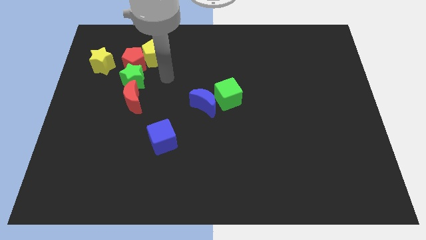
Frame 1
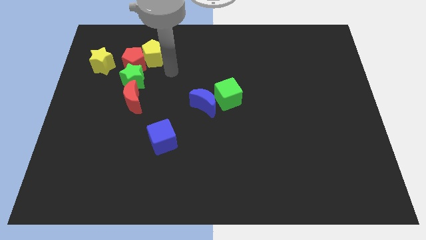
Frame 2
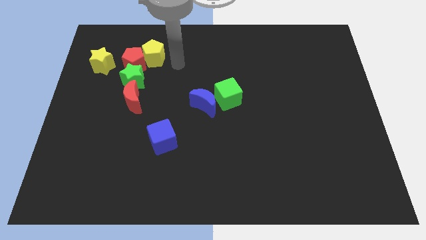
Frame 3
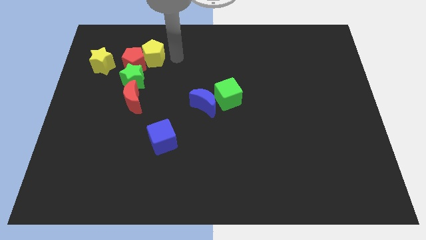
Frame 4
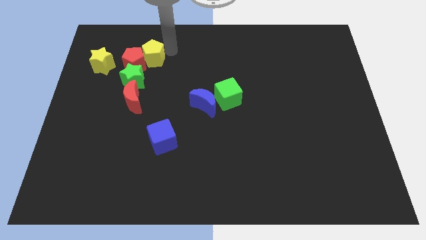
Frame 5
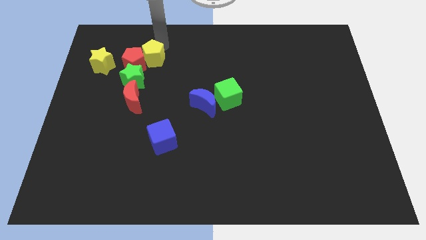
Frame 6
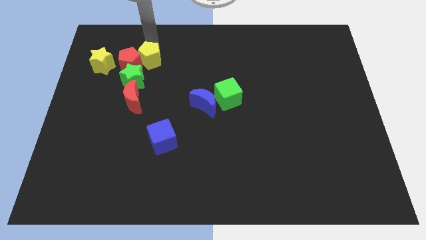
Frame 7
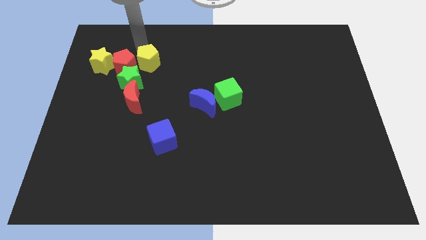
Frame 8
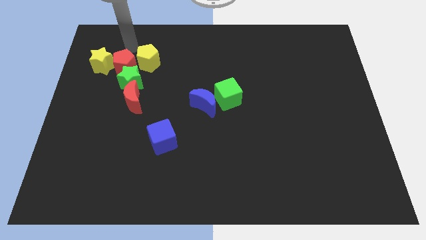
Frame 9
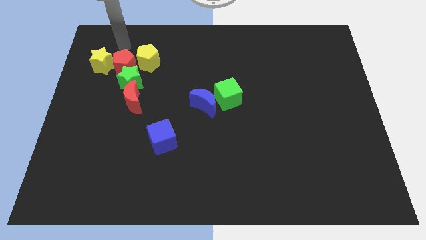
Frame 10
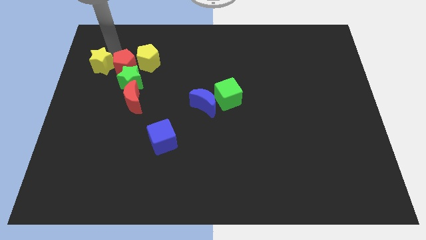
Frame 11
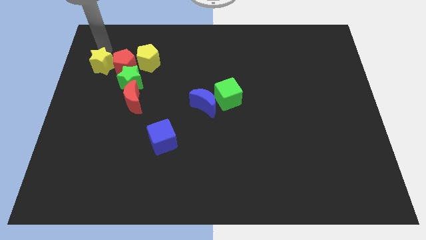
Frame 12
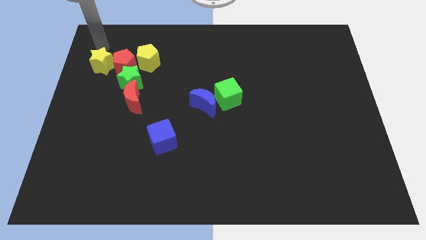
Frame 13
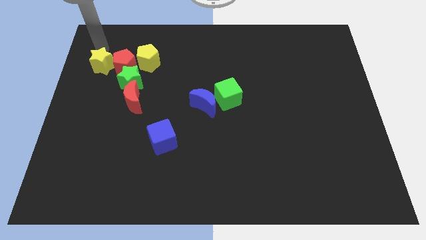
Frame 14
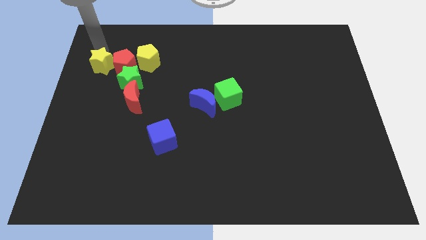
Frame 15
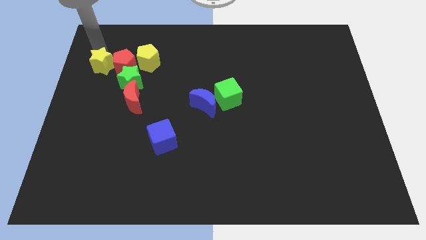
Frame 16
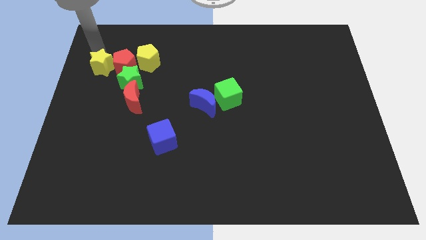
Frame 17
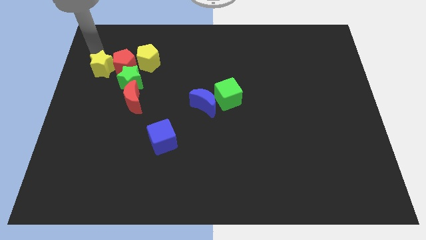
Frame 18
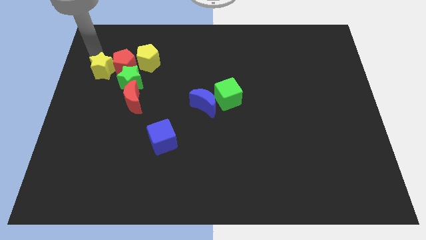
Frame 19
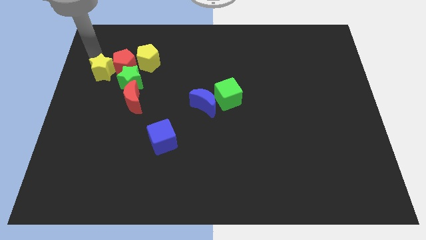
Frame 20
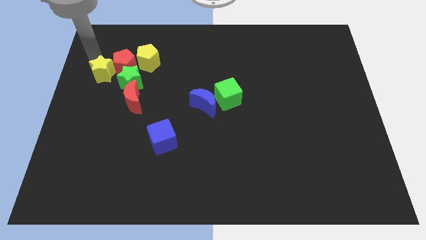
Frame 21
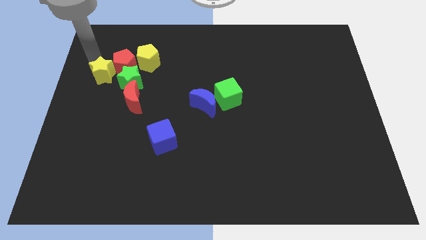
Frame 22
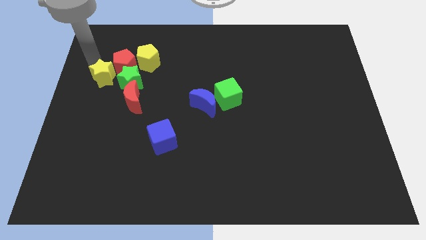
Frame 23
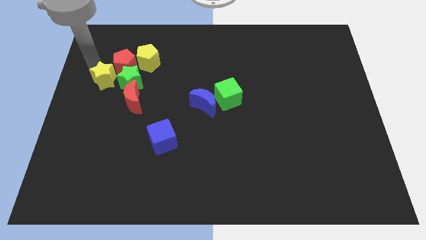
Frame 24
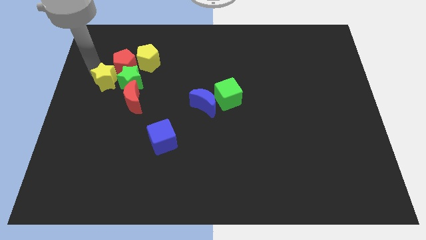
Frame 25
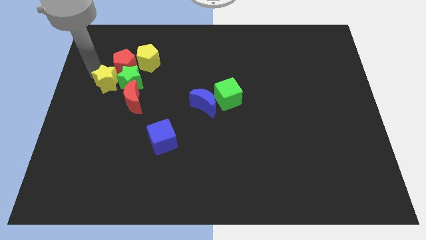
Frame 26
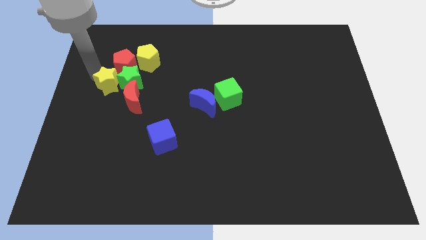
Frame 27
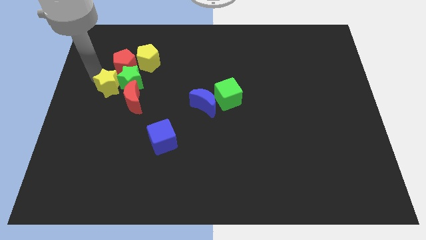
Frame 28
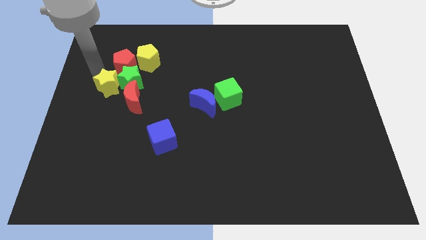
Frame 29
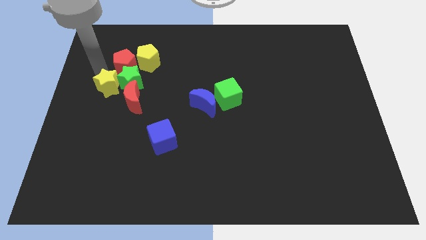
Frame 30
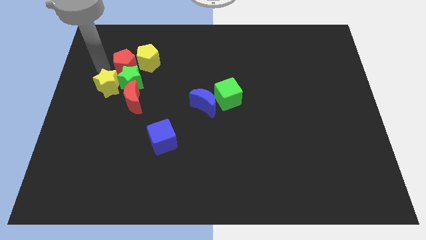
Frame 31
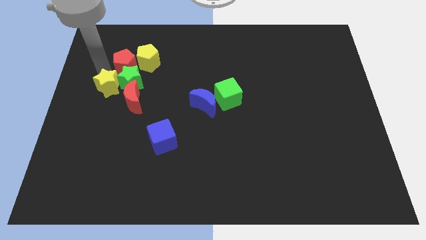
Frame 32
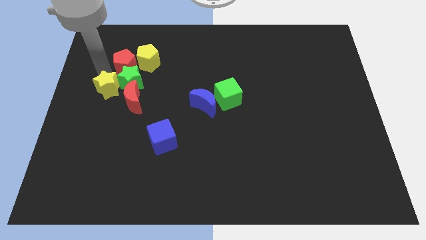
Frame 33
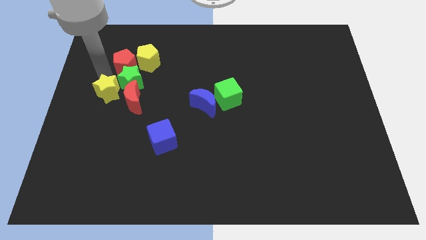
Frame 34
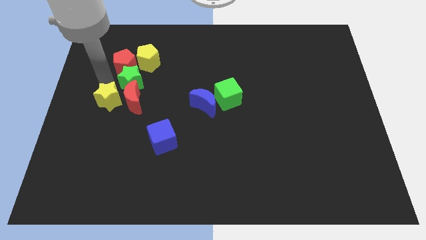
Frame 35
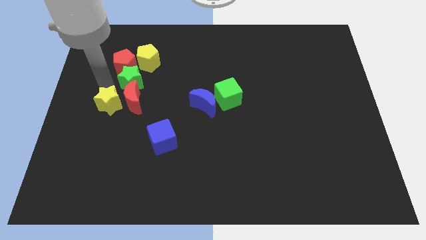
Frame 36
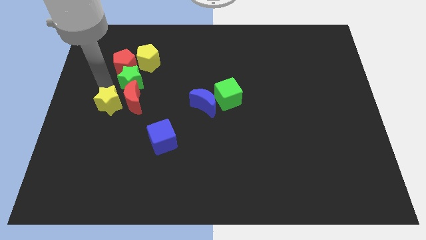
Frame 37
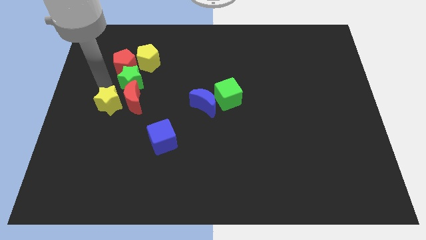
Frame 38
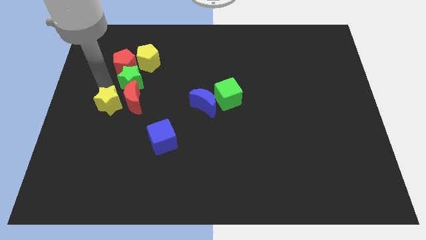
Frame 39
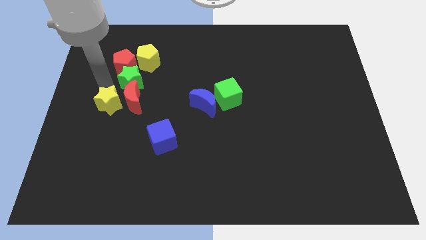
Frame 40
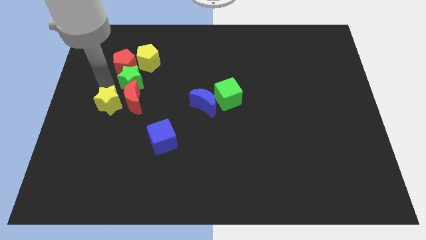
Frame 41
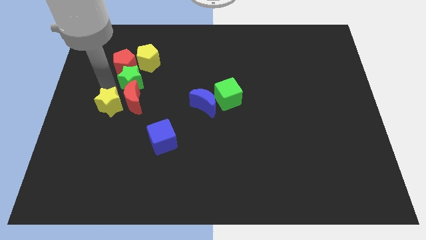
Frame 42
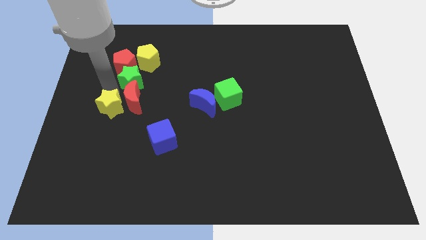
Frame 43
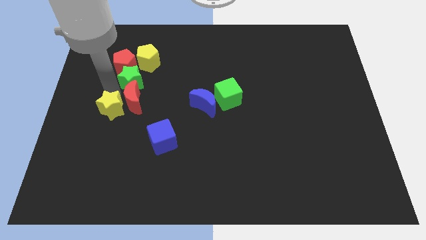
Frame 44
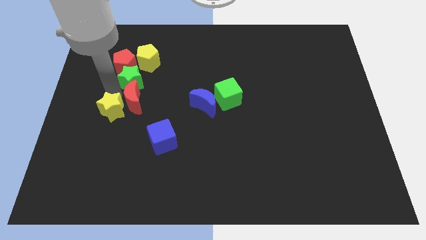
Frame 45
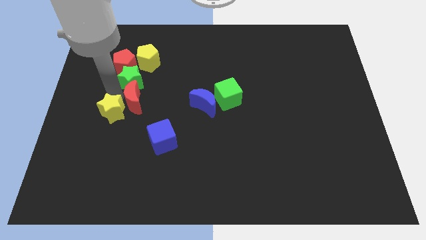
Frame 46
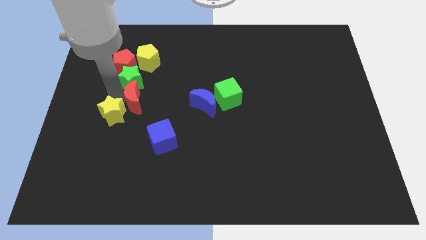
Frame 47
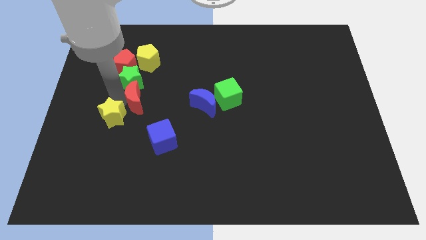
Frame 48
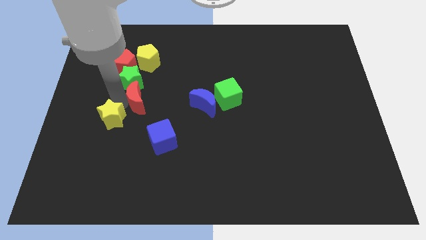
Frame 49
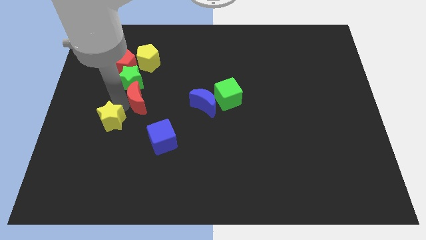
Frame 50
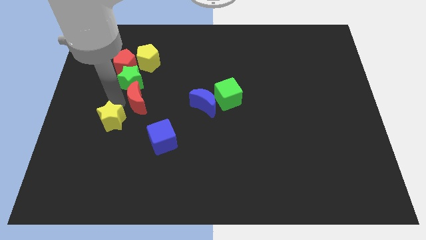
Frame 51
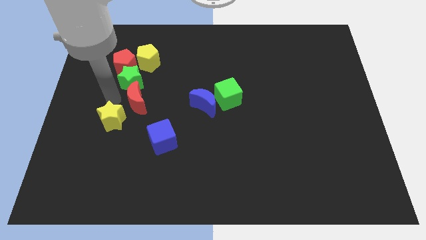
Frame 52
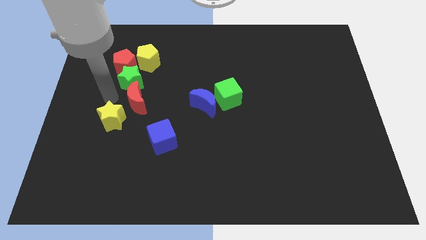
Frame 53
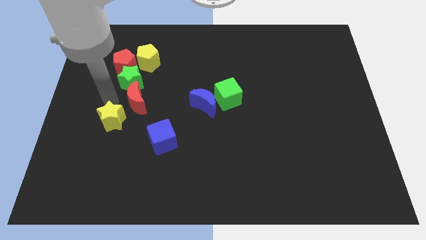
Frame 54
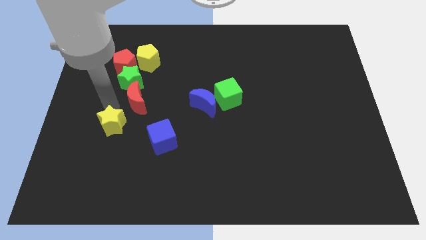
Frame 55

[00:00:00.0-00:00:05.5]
put the yellow star left of the blue cube

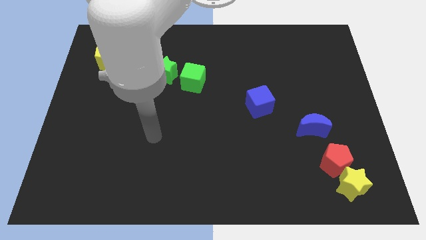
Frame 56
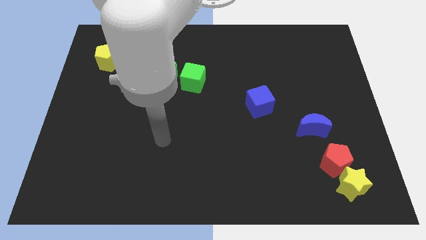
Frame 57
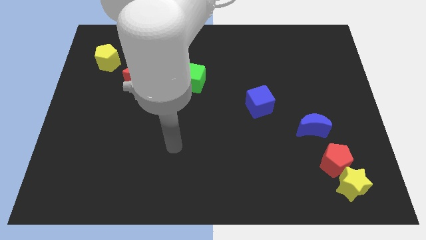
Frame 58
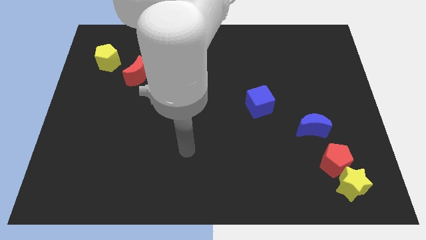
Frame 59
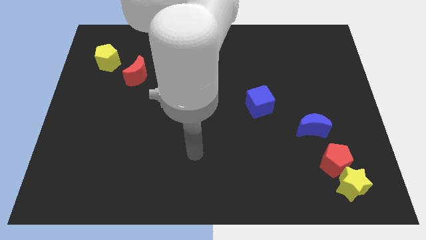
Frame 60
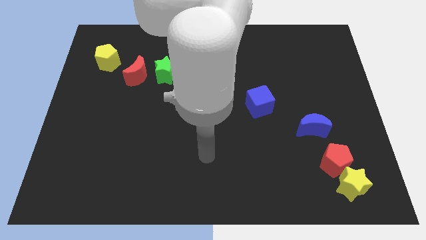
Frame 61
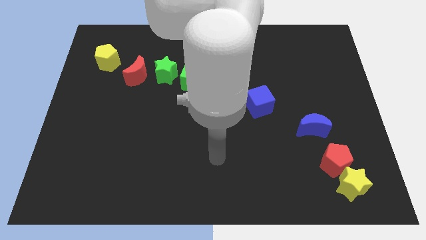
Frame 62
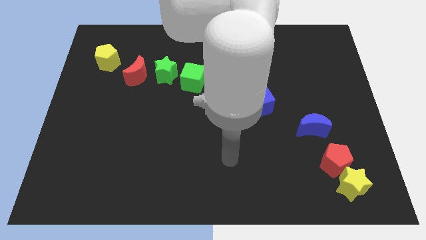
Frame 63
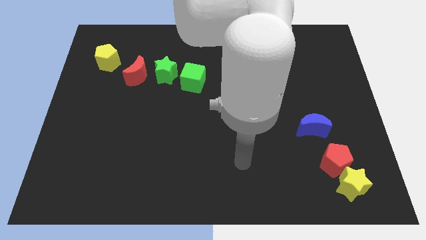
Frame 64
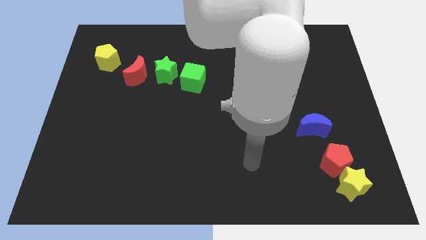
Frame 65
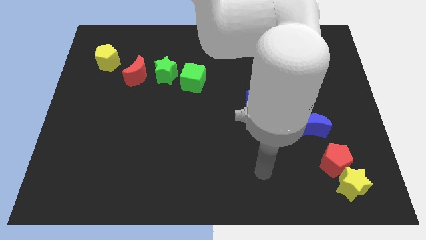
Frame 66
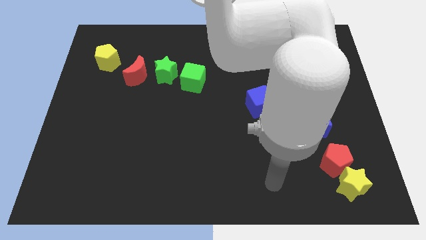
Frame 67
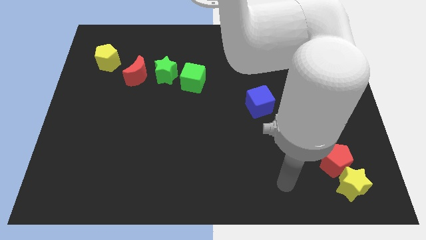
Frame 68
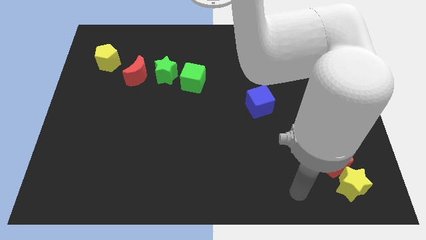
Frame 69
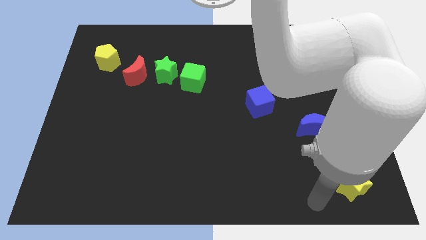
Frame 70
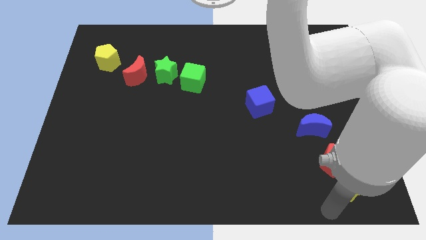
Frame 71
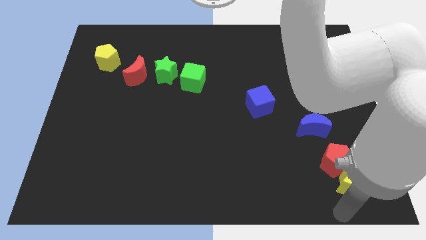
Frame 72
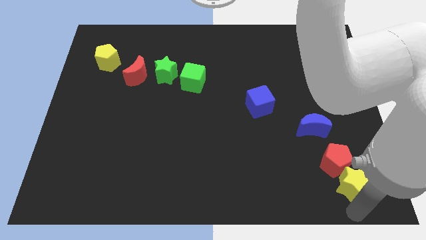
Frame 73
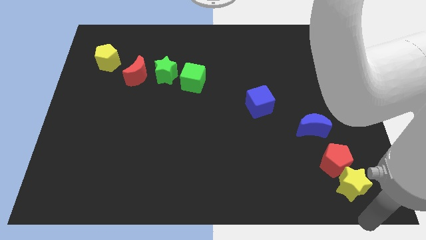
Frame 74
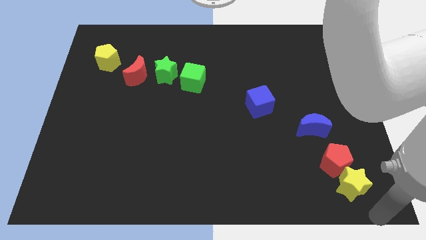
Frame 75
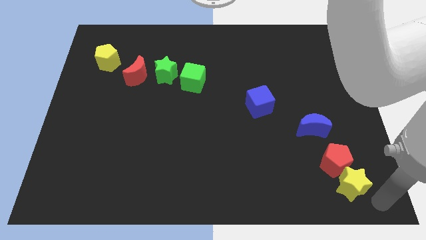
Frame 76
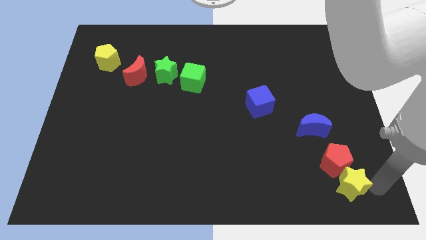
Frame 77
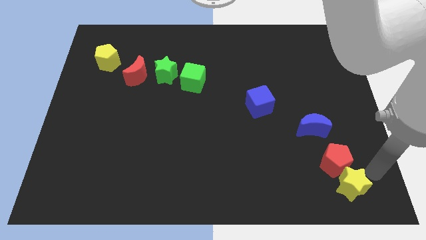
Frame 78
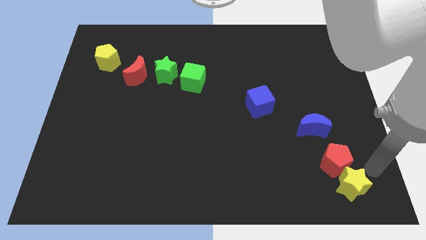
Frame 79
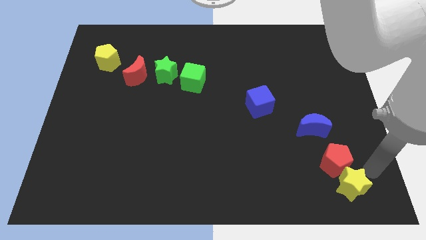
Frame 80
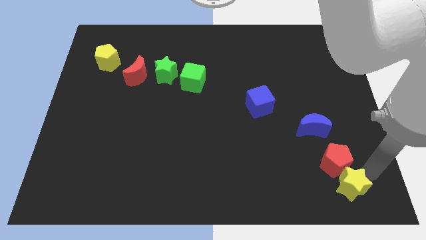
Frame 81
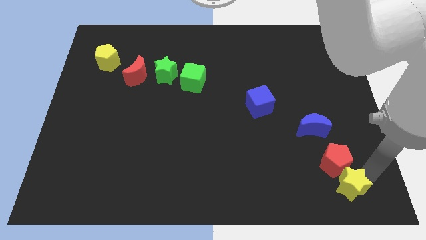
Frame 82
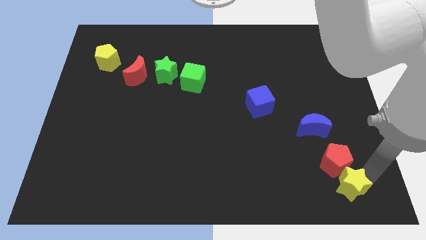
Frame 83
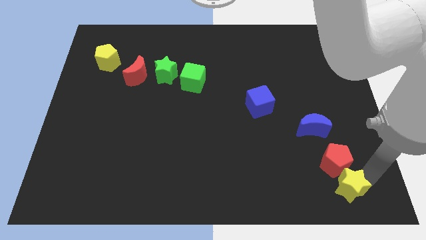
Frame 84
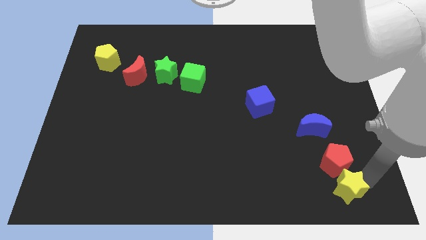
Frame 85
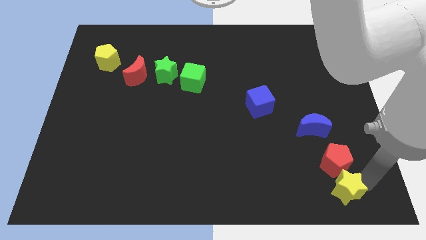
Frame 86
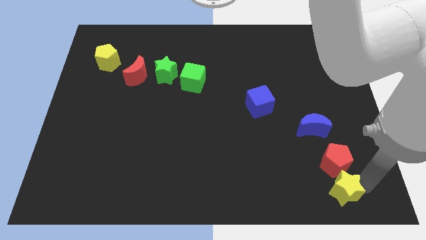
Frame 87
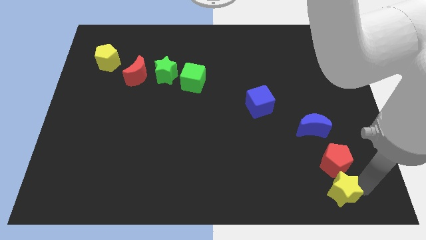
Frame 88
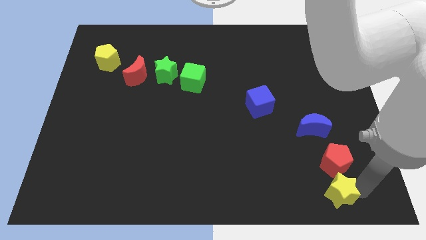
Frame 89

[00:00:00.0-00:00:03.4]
put the yellow star below the blue moon
